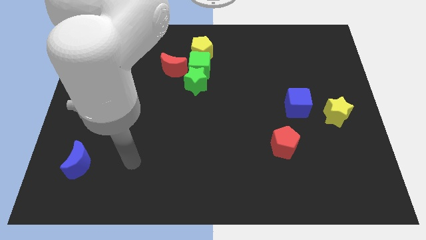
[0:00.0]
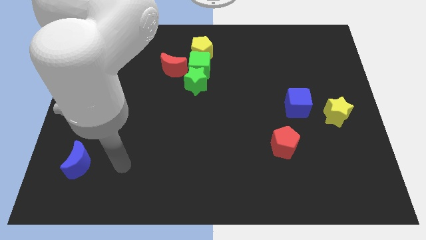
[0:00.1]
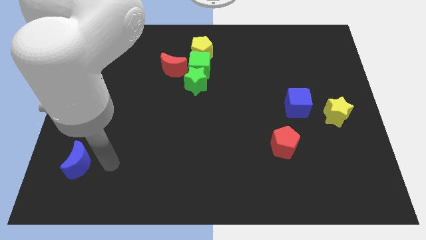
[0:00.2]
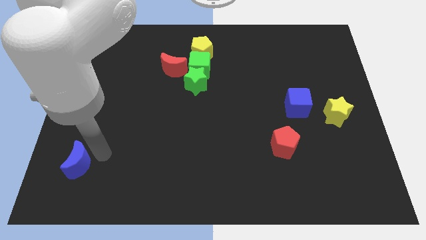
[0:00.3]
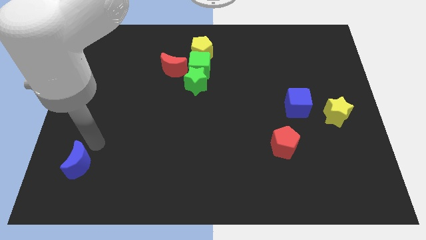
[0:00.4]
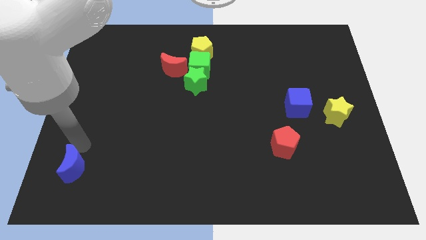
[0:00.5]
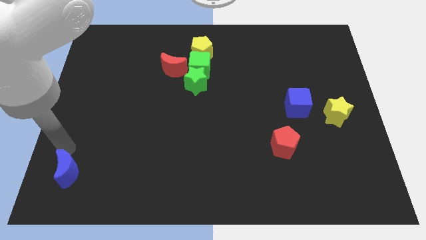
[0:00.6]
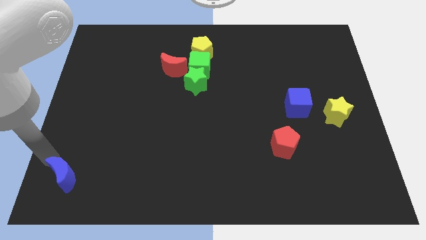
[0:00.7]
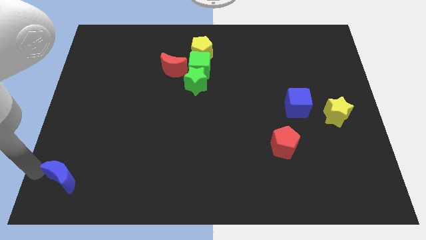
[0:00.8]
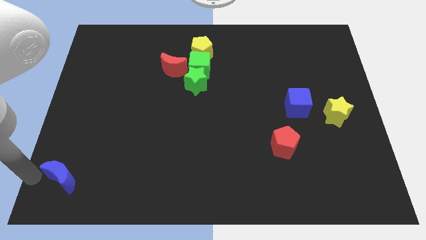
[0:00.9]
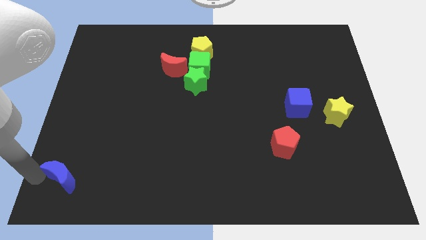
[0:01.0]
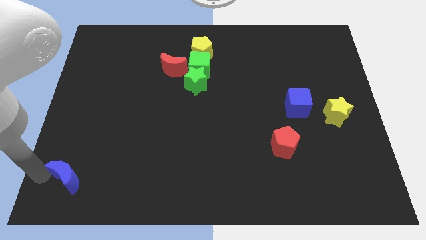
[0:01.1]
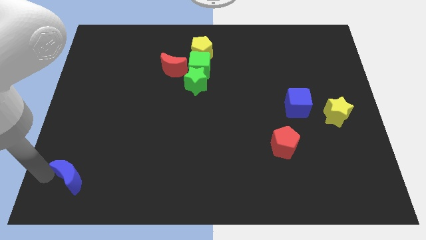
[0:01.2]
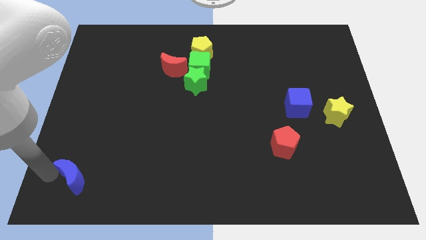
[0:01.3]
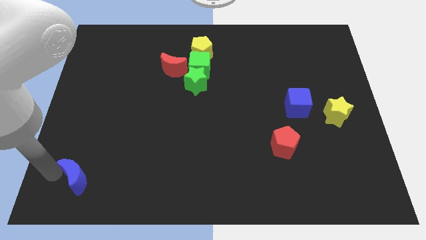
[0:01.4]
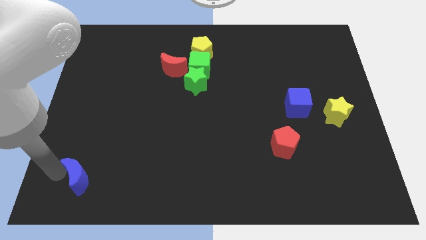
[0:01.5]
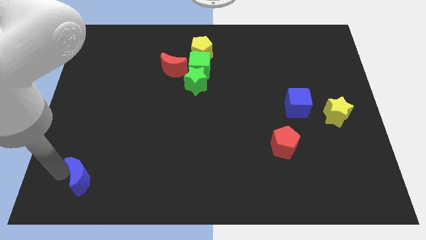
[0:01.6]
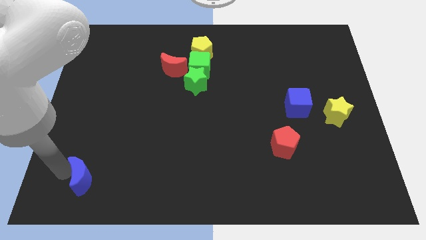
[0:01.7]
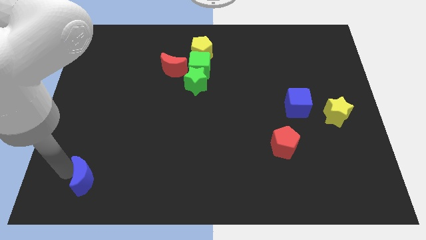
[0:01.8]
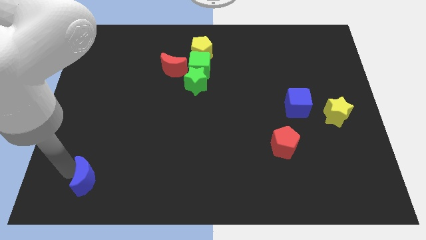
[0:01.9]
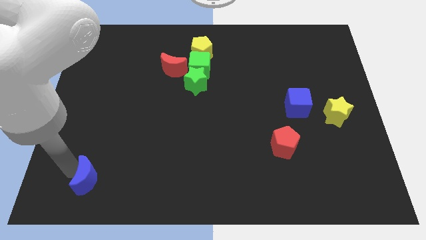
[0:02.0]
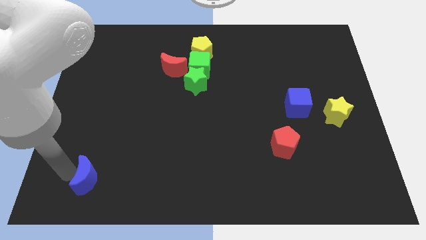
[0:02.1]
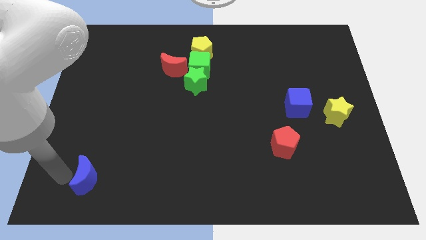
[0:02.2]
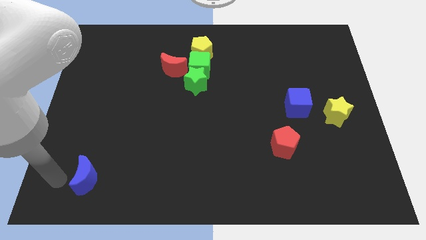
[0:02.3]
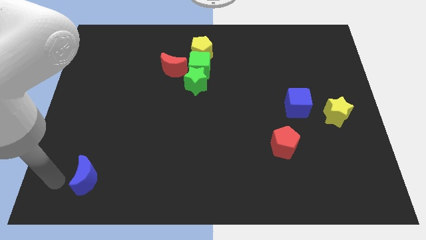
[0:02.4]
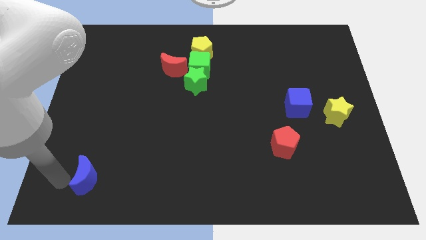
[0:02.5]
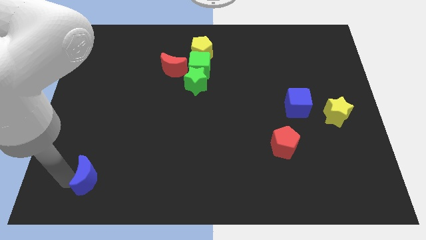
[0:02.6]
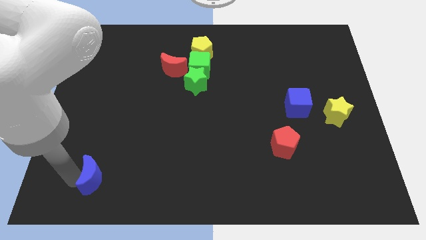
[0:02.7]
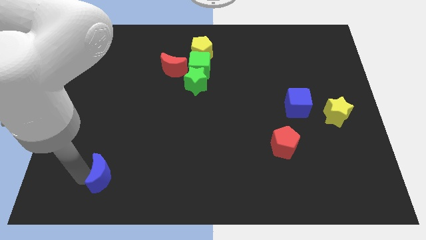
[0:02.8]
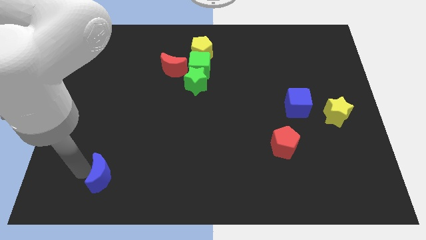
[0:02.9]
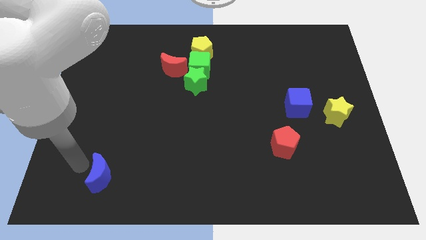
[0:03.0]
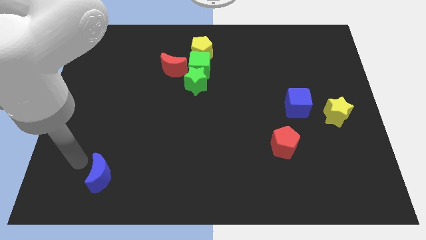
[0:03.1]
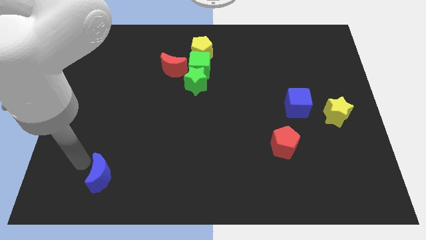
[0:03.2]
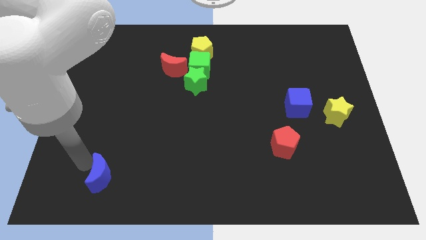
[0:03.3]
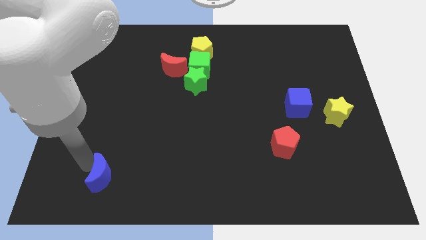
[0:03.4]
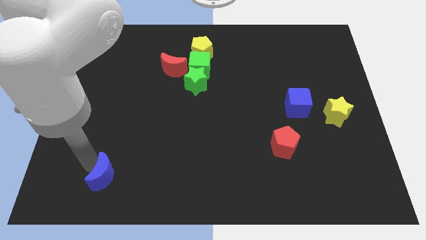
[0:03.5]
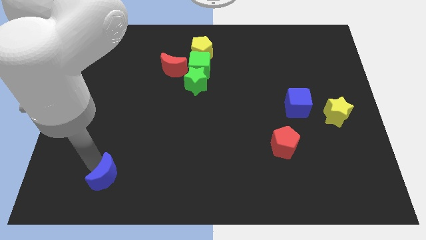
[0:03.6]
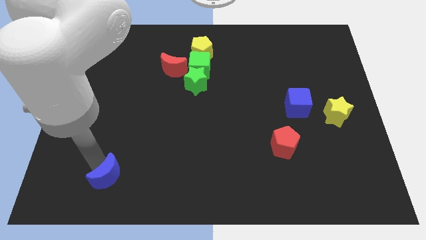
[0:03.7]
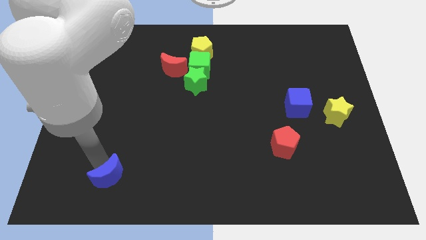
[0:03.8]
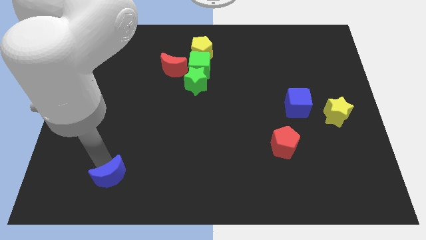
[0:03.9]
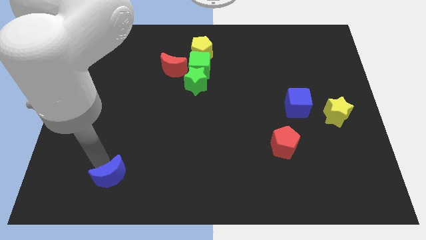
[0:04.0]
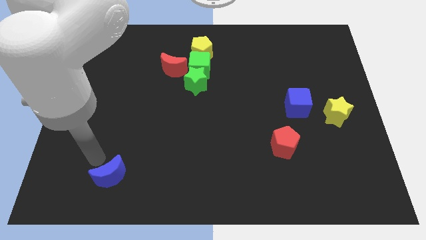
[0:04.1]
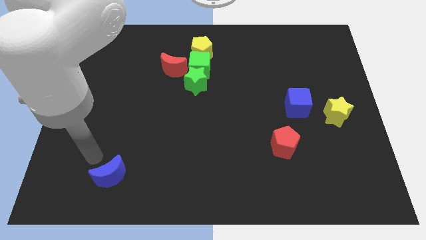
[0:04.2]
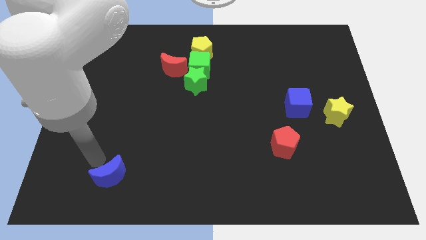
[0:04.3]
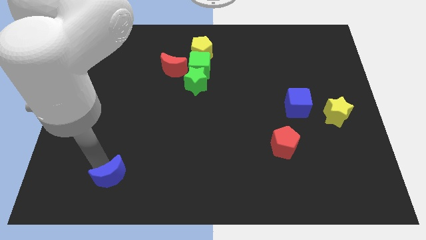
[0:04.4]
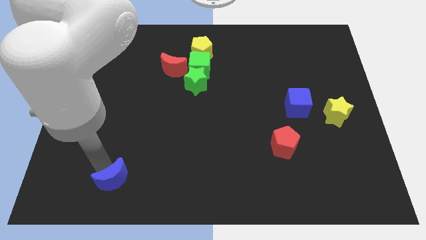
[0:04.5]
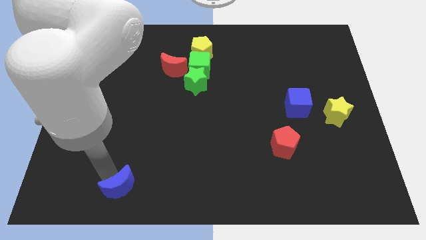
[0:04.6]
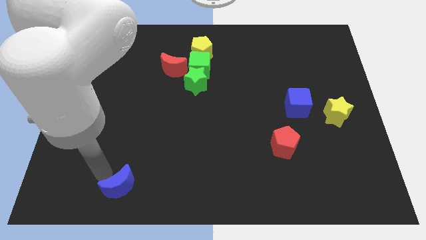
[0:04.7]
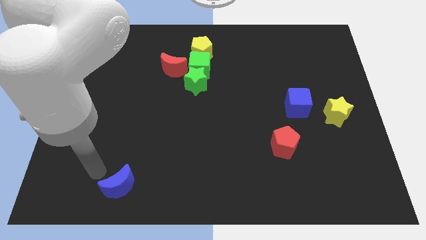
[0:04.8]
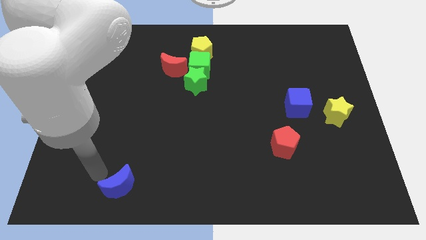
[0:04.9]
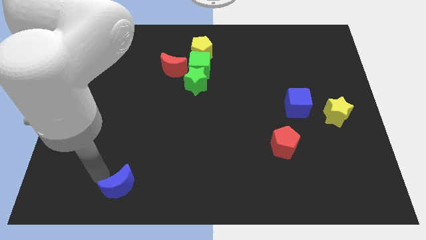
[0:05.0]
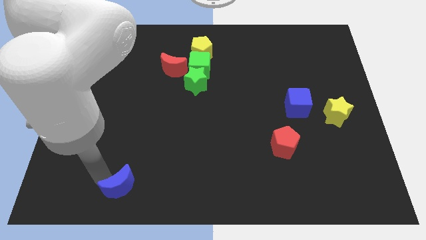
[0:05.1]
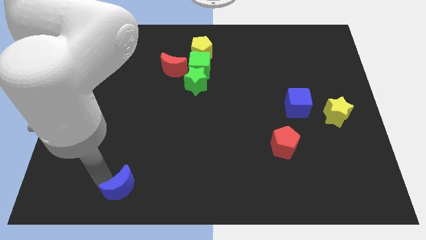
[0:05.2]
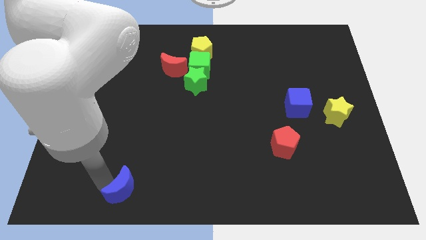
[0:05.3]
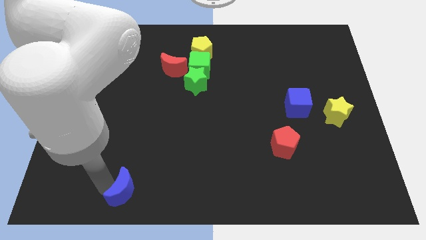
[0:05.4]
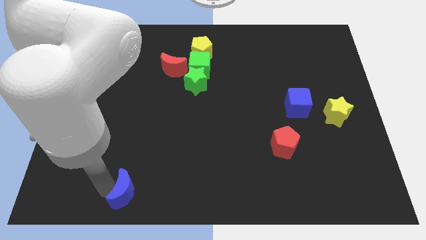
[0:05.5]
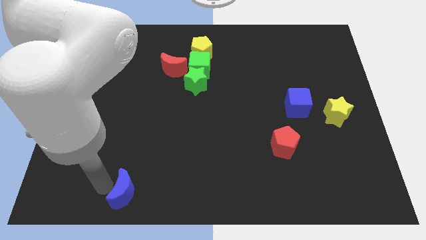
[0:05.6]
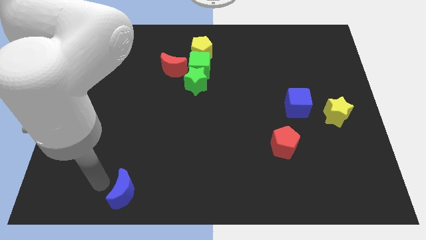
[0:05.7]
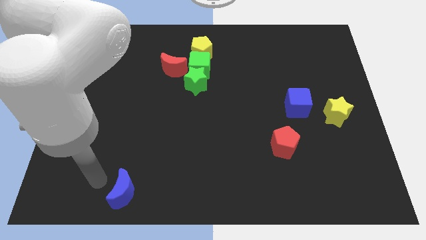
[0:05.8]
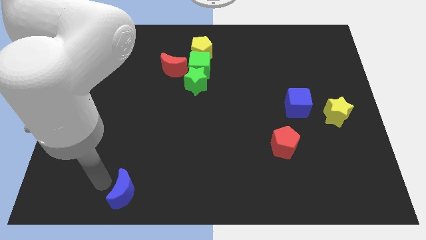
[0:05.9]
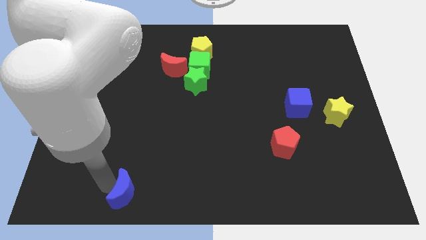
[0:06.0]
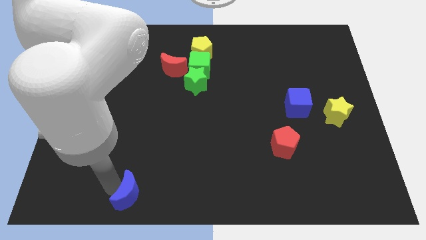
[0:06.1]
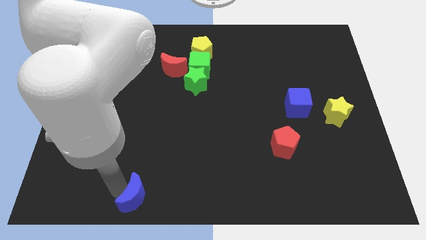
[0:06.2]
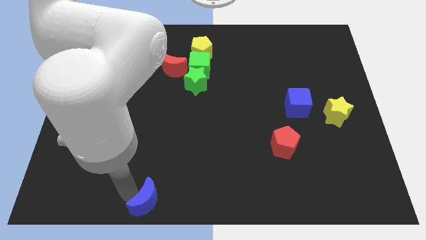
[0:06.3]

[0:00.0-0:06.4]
put the blue moon to the bottom side
